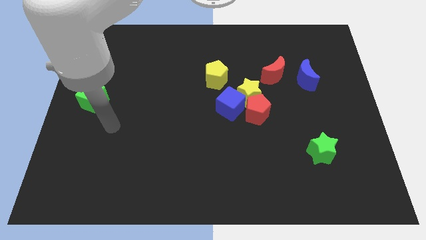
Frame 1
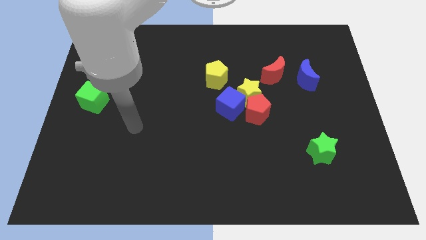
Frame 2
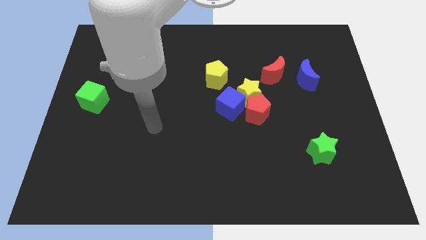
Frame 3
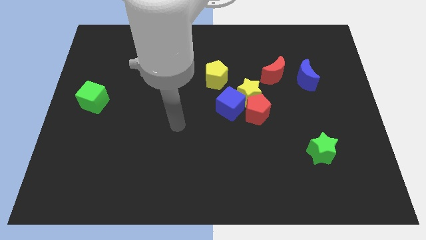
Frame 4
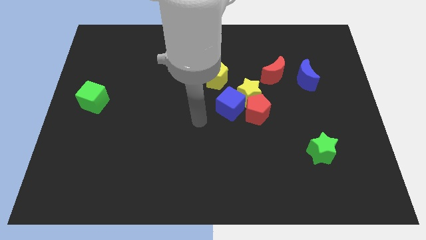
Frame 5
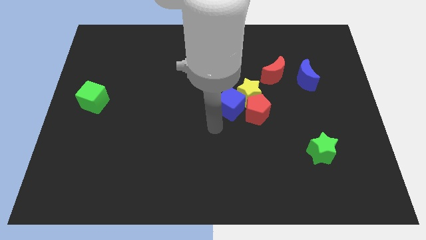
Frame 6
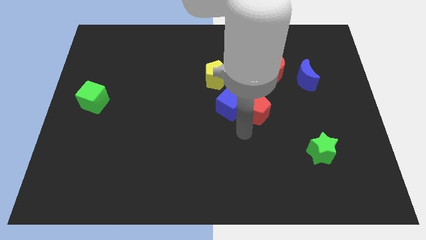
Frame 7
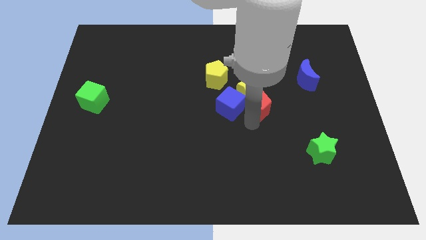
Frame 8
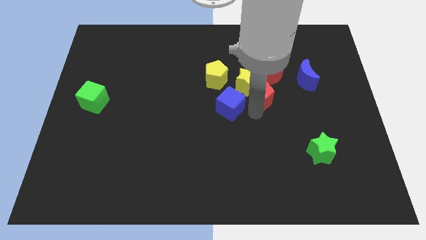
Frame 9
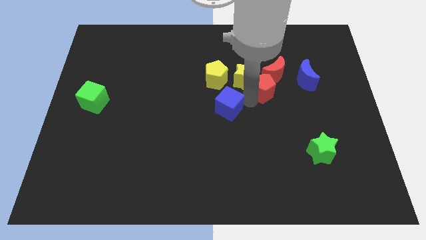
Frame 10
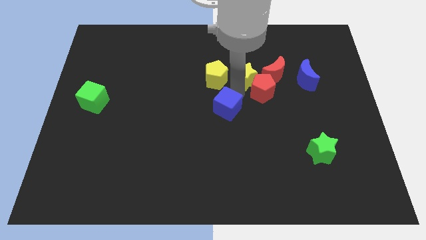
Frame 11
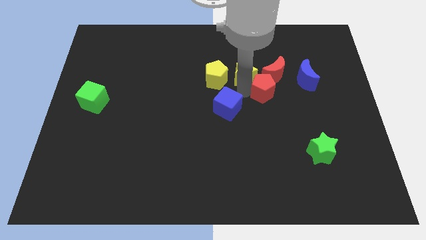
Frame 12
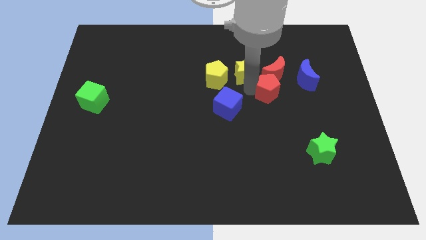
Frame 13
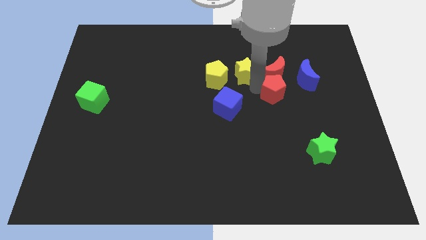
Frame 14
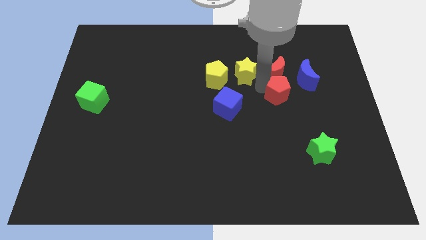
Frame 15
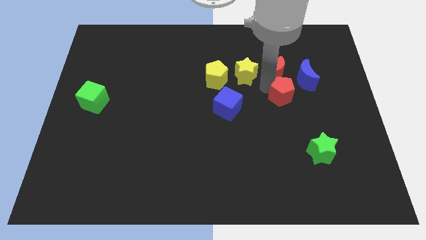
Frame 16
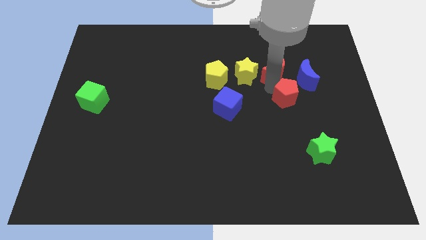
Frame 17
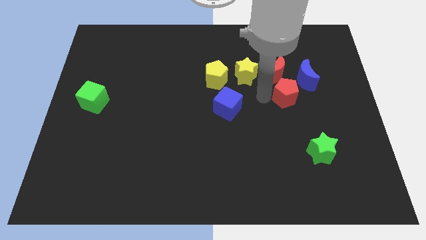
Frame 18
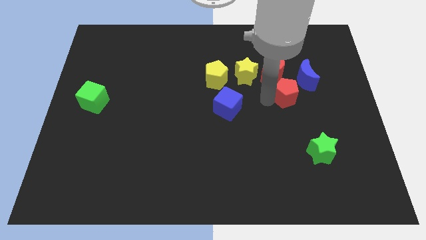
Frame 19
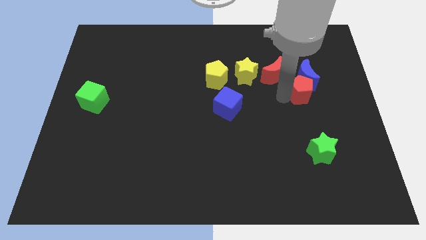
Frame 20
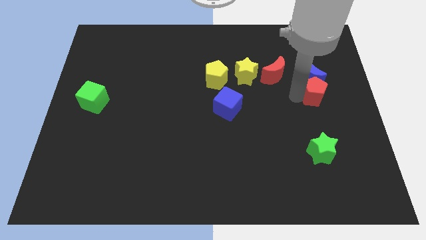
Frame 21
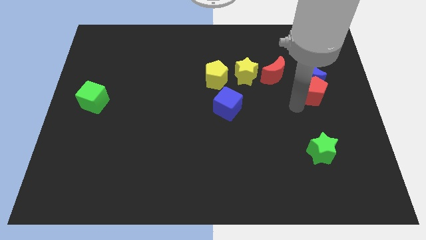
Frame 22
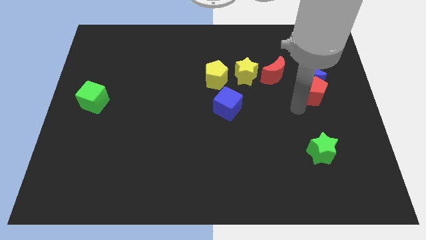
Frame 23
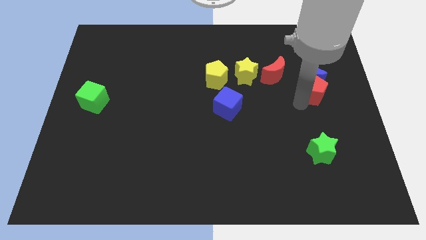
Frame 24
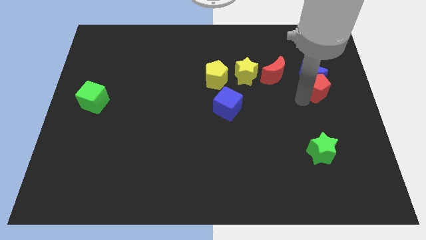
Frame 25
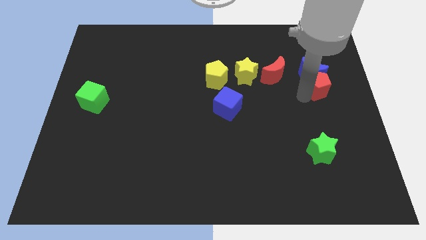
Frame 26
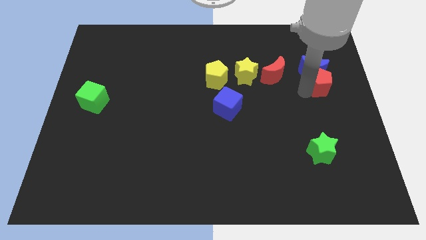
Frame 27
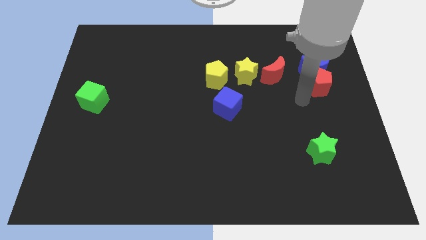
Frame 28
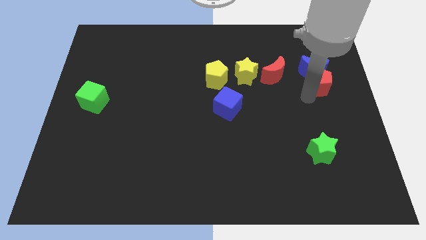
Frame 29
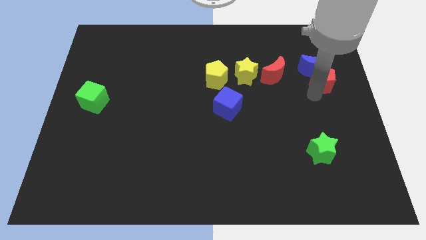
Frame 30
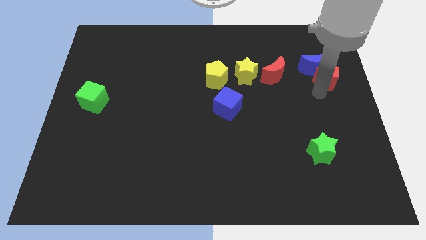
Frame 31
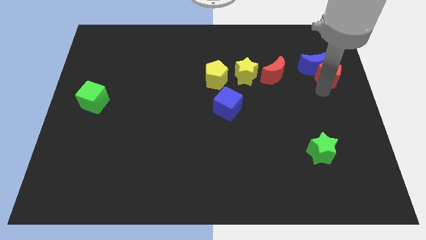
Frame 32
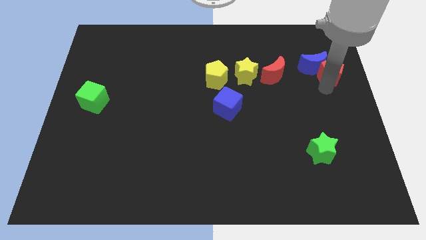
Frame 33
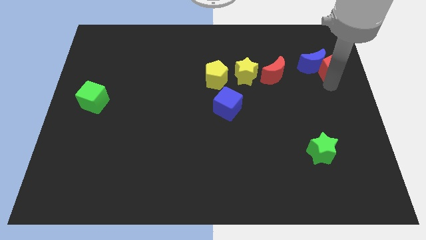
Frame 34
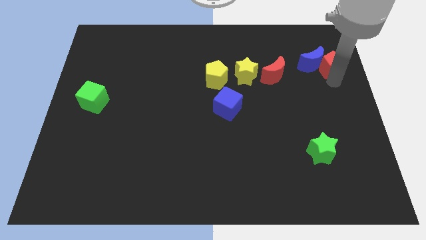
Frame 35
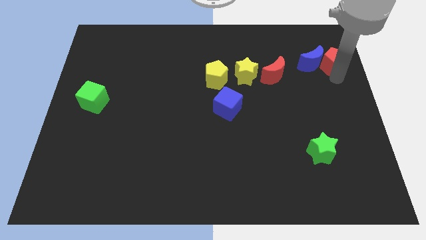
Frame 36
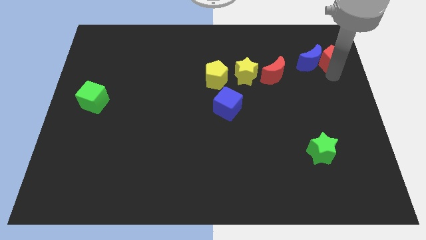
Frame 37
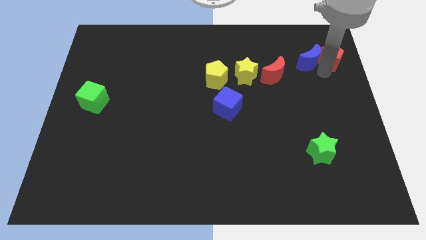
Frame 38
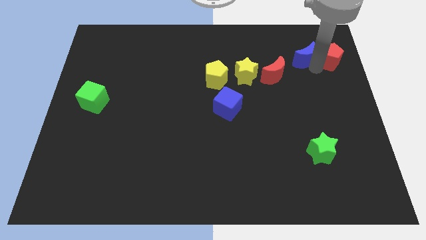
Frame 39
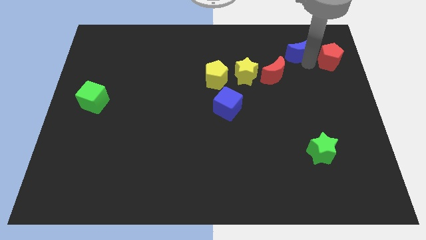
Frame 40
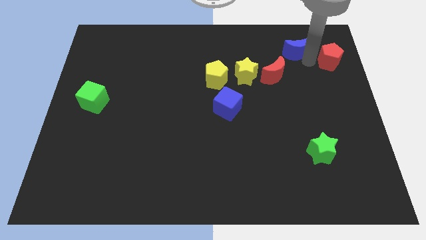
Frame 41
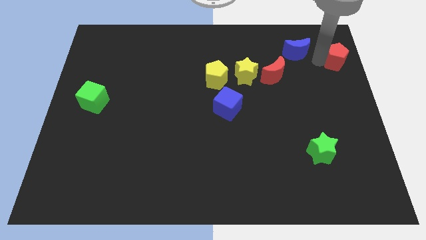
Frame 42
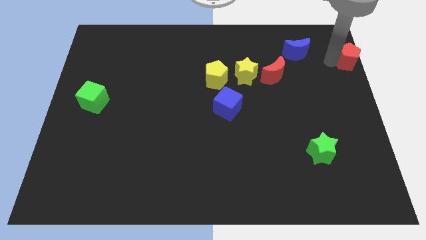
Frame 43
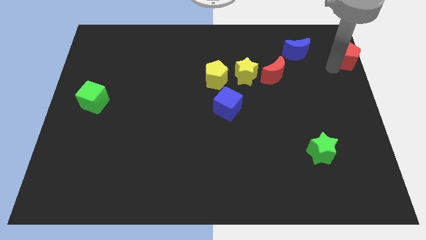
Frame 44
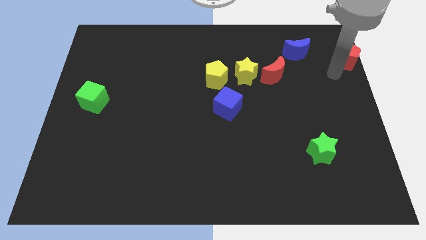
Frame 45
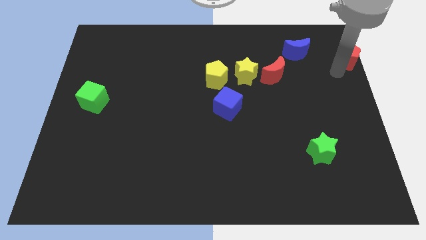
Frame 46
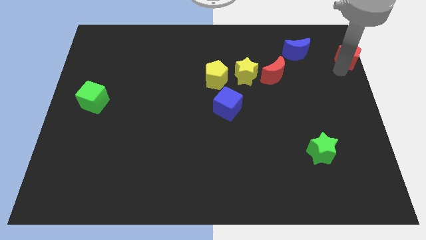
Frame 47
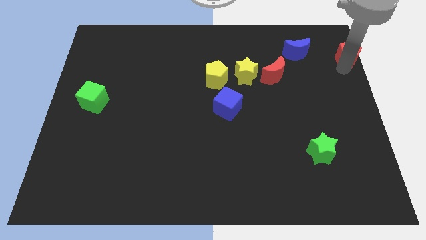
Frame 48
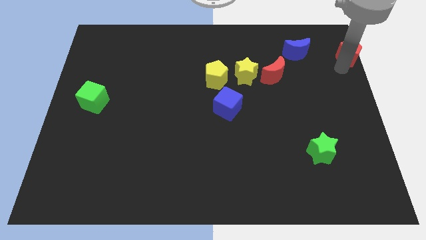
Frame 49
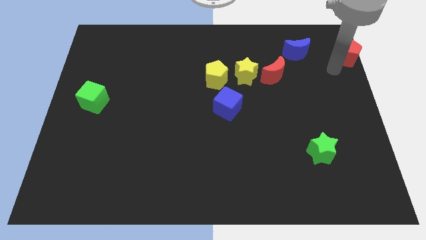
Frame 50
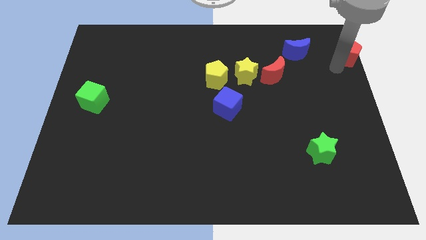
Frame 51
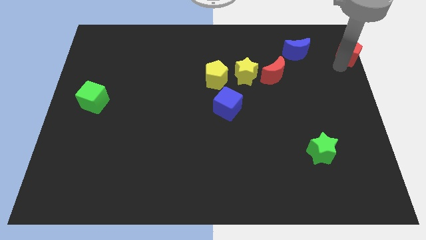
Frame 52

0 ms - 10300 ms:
move the red pentagon to the upper right corner

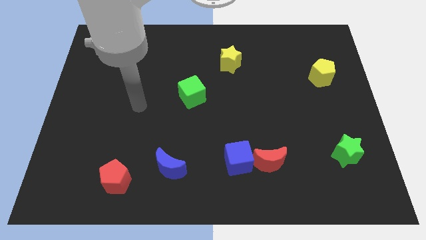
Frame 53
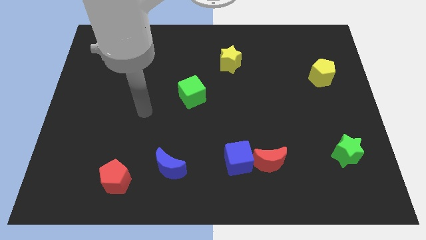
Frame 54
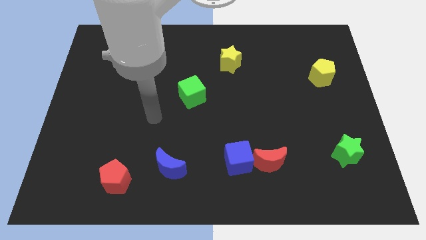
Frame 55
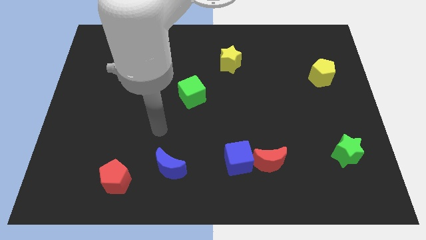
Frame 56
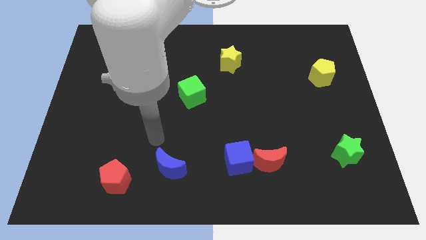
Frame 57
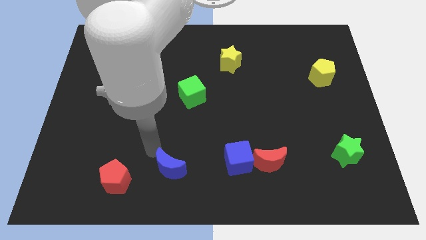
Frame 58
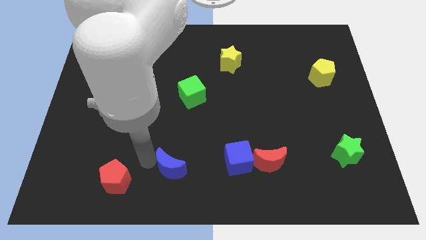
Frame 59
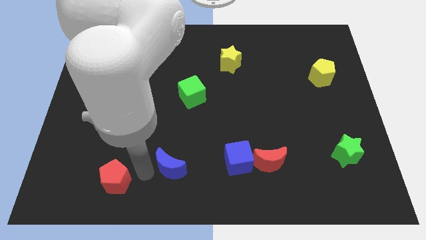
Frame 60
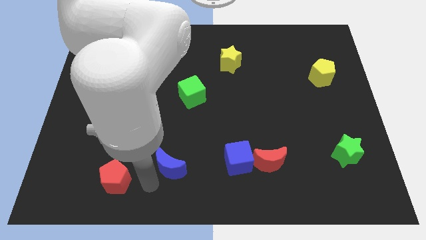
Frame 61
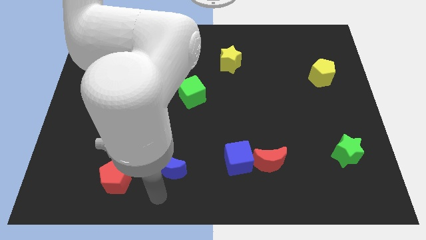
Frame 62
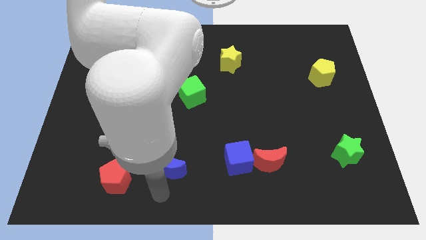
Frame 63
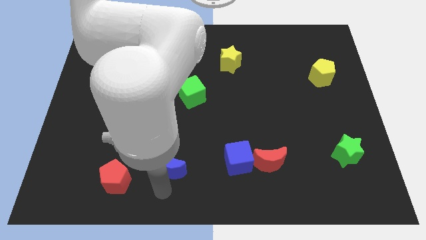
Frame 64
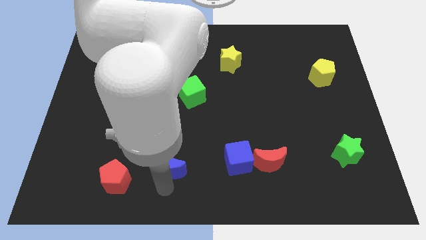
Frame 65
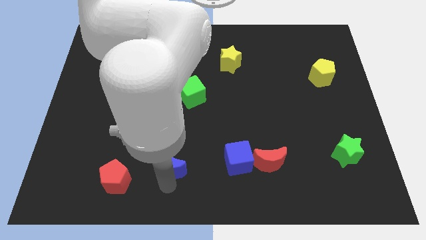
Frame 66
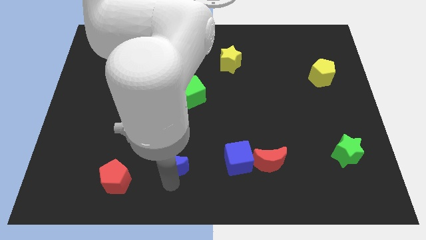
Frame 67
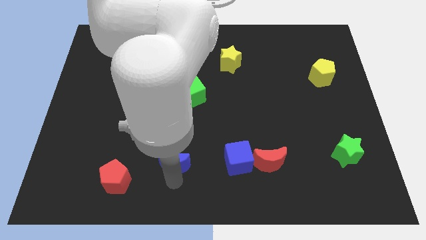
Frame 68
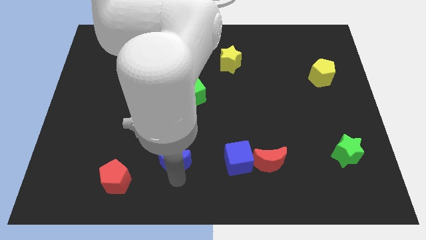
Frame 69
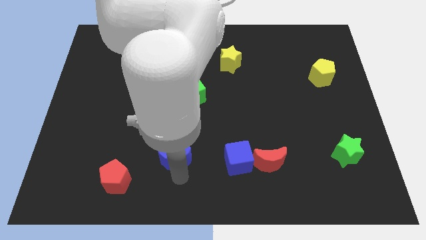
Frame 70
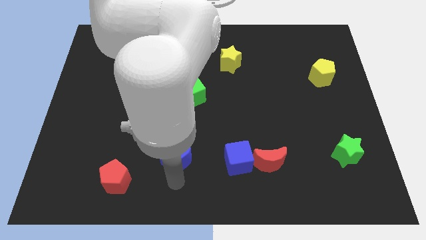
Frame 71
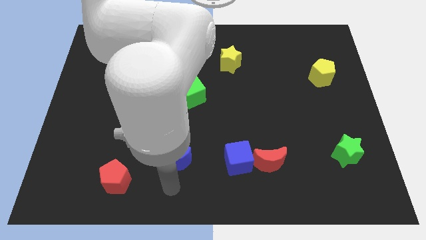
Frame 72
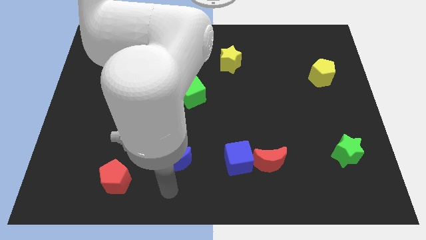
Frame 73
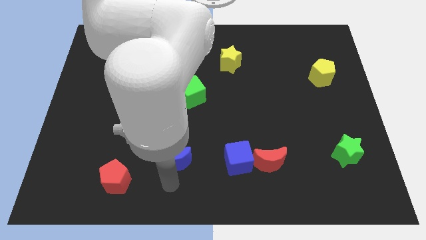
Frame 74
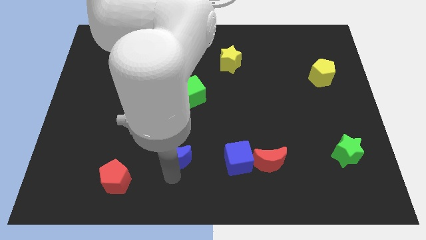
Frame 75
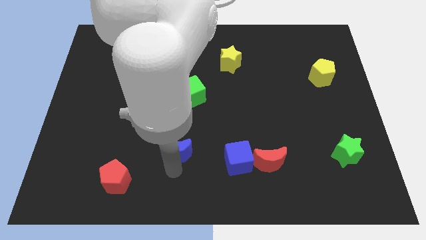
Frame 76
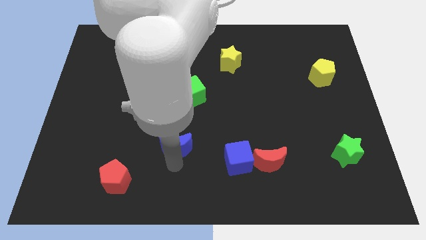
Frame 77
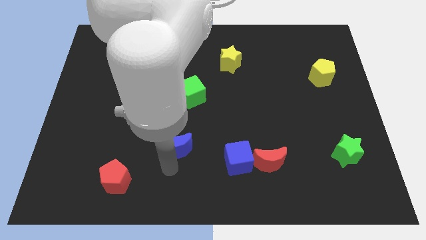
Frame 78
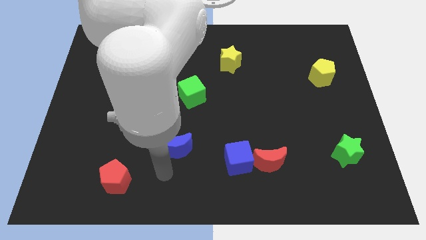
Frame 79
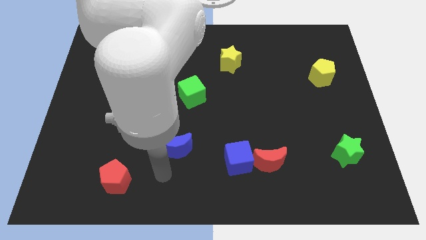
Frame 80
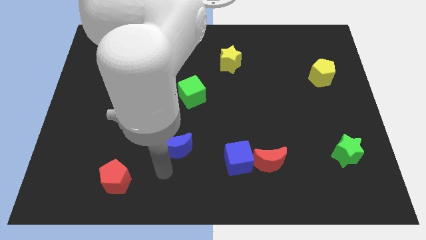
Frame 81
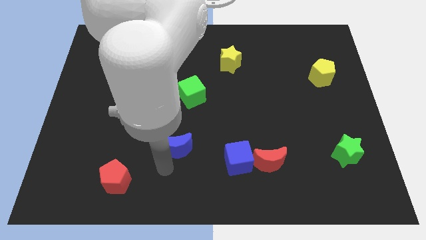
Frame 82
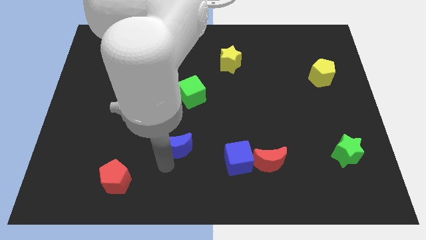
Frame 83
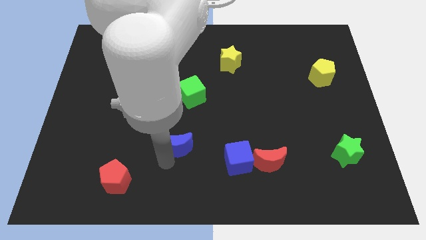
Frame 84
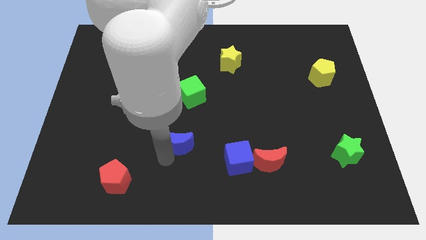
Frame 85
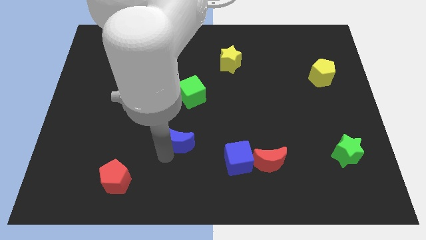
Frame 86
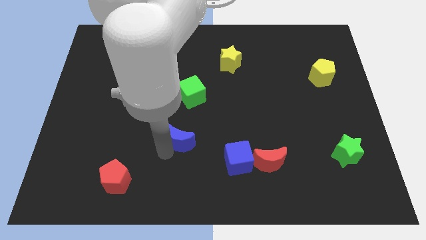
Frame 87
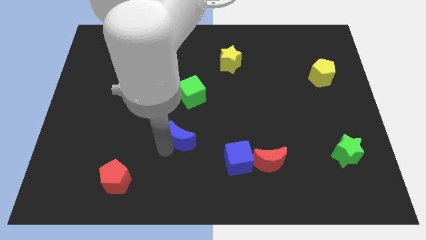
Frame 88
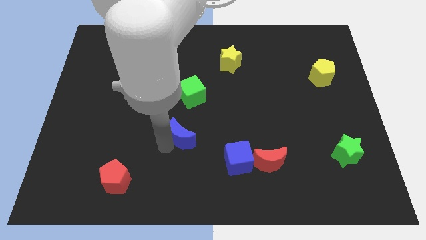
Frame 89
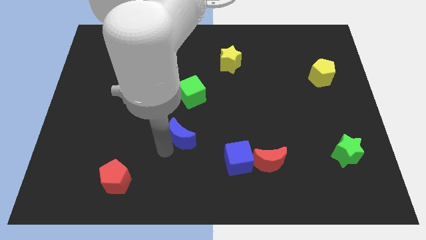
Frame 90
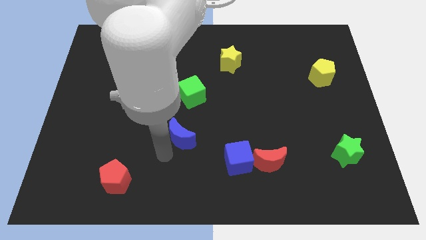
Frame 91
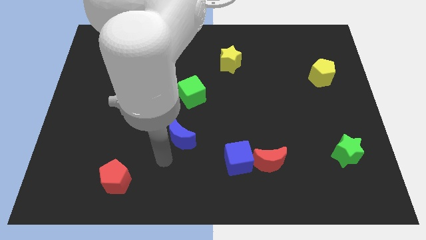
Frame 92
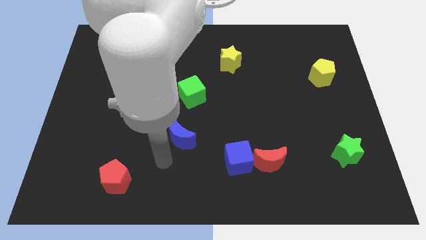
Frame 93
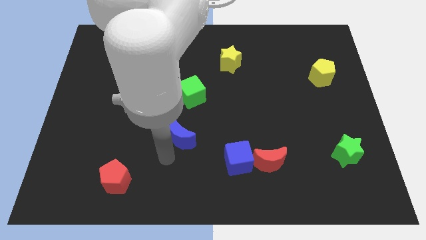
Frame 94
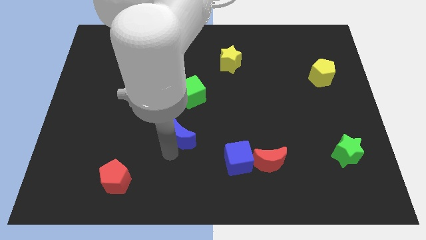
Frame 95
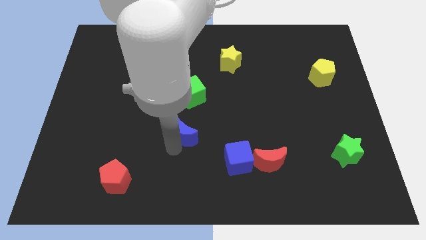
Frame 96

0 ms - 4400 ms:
put the blue moon to the center
